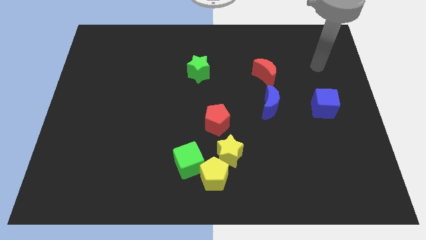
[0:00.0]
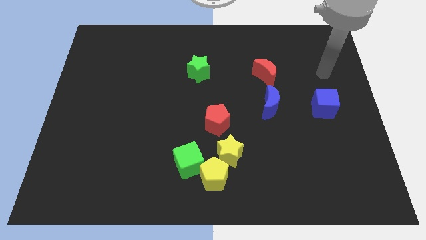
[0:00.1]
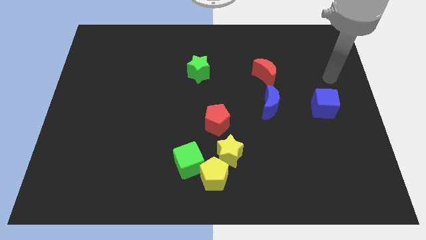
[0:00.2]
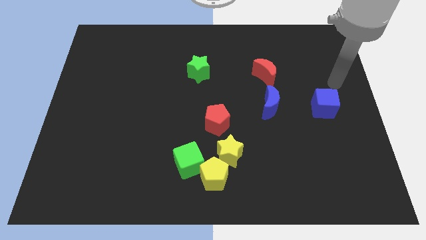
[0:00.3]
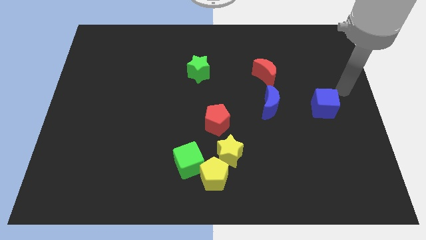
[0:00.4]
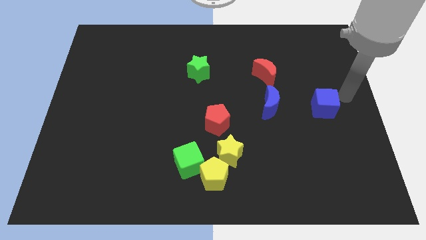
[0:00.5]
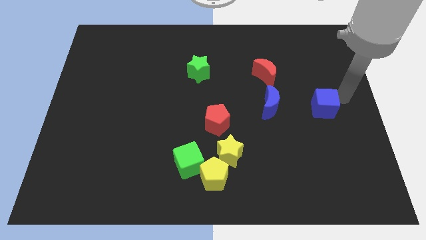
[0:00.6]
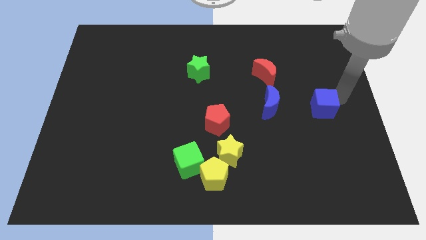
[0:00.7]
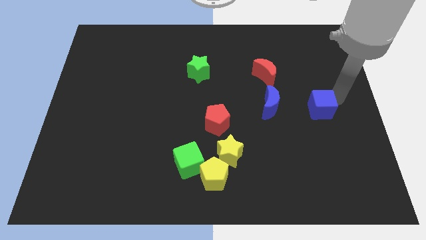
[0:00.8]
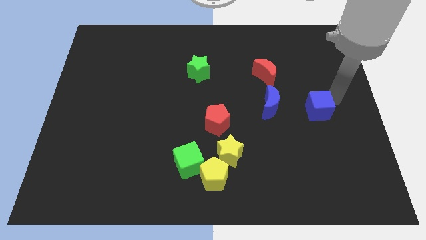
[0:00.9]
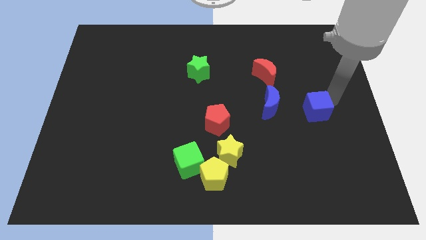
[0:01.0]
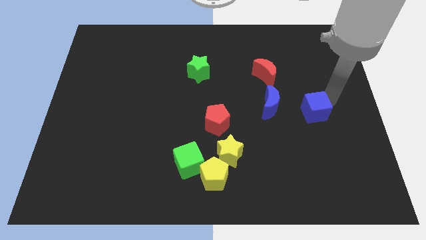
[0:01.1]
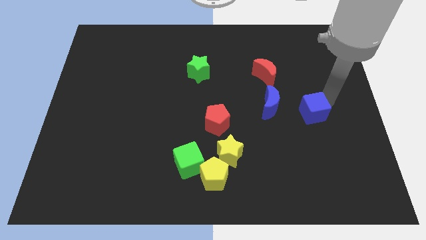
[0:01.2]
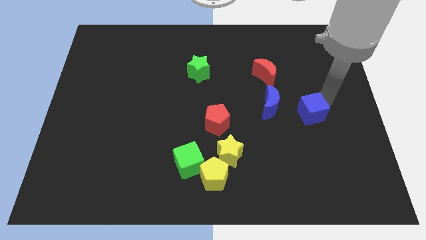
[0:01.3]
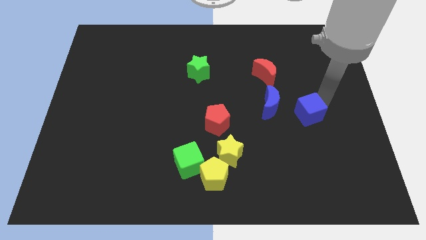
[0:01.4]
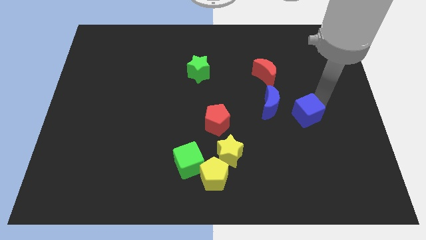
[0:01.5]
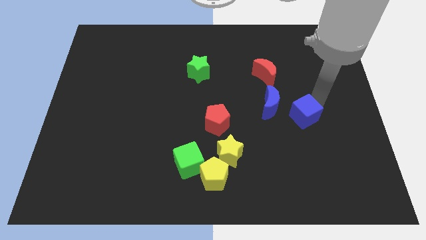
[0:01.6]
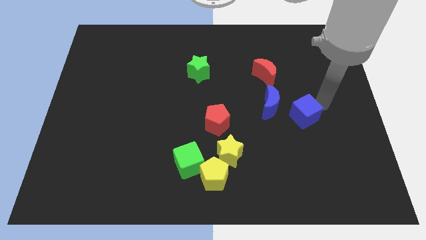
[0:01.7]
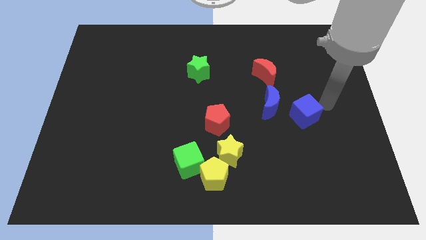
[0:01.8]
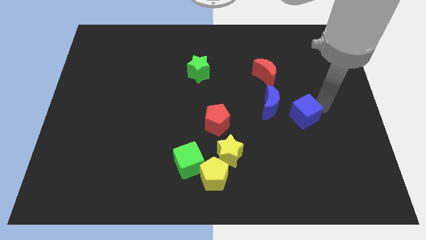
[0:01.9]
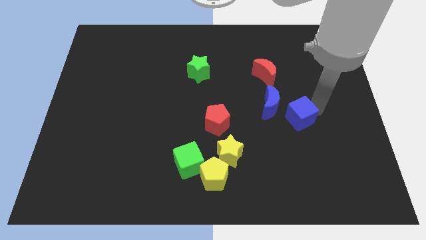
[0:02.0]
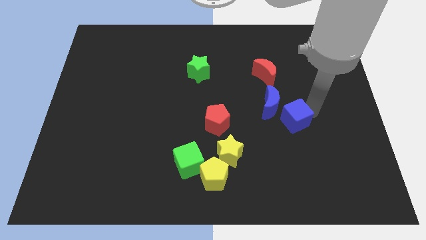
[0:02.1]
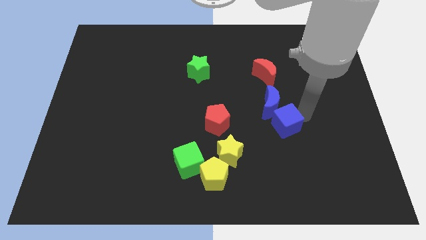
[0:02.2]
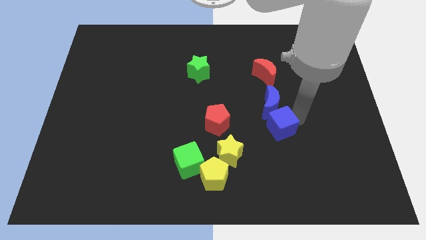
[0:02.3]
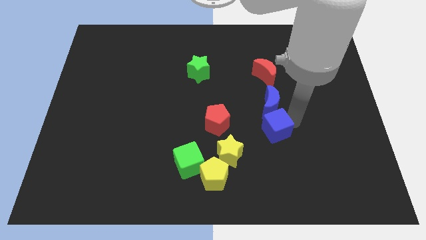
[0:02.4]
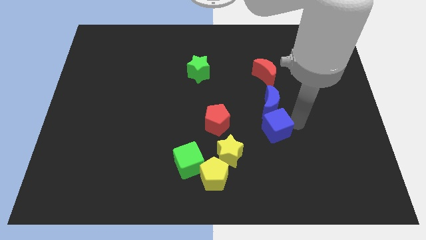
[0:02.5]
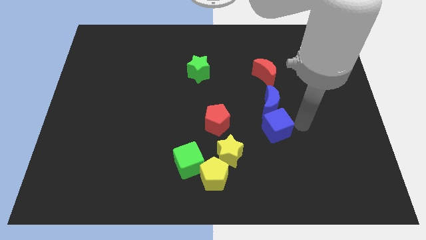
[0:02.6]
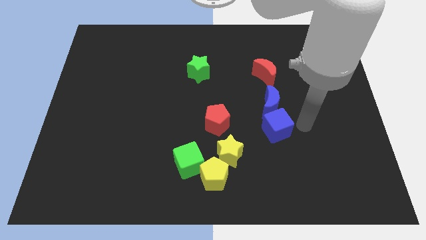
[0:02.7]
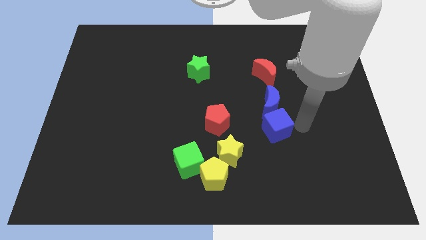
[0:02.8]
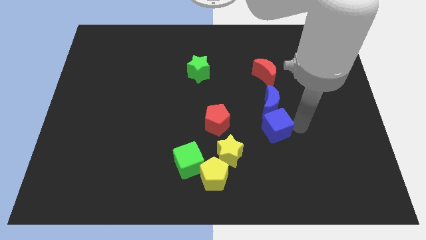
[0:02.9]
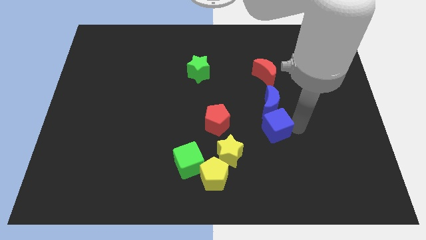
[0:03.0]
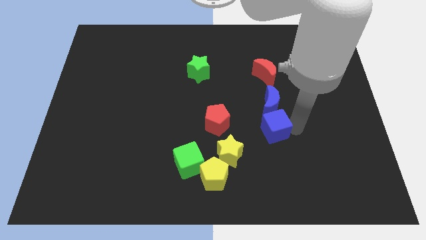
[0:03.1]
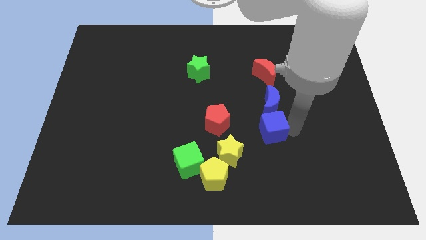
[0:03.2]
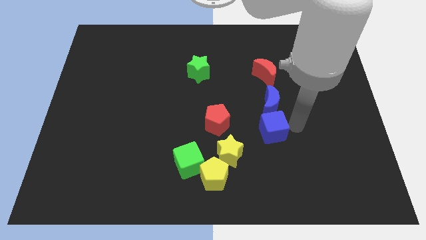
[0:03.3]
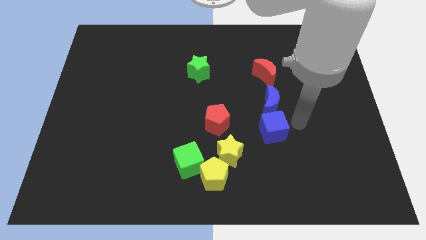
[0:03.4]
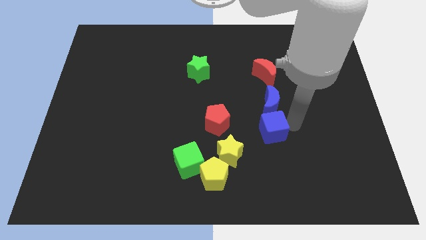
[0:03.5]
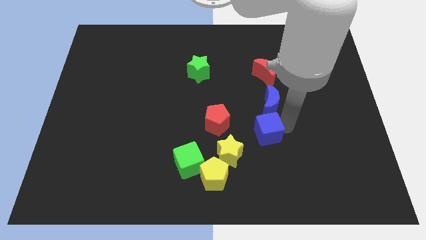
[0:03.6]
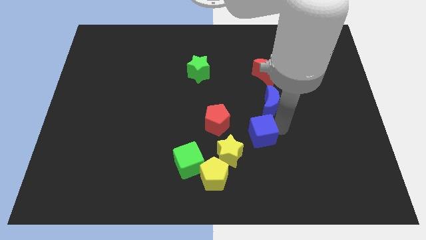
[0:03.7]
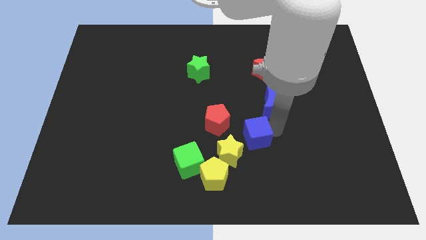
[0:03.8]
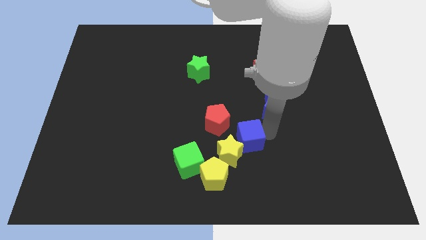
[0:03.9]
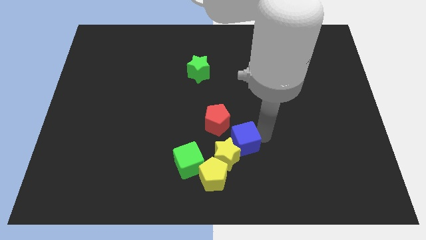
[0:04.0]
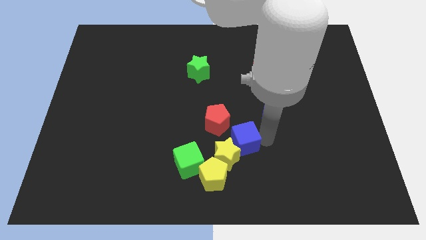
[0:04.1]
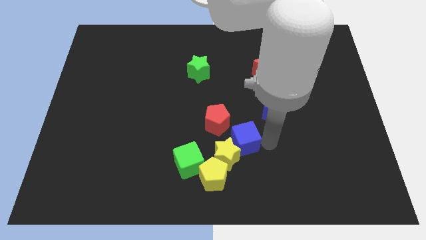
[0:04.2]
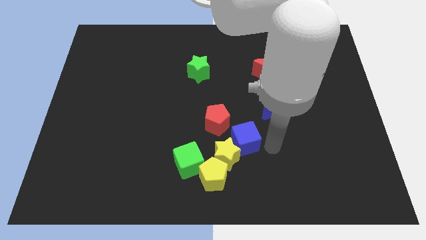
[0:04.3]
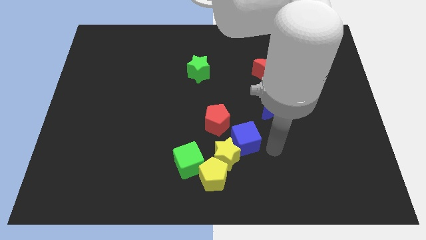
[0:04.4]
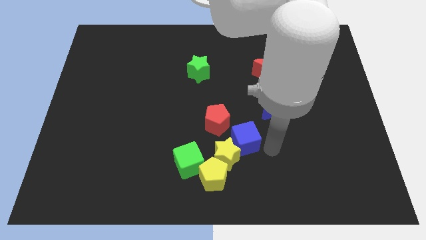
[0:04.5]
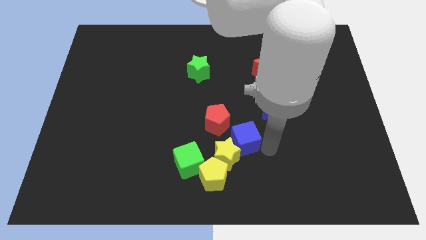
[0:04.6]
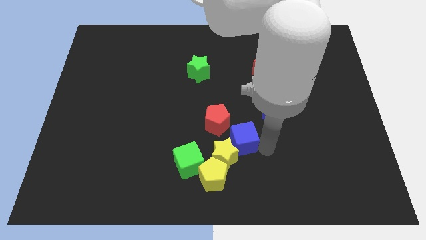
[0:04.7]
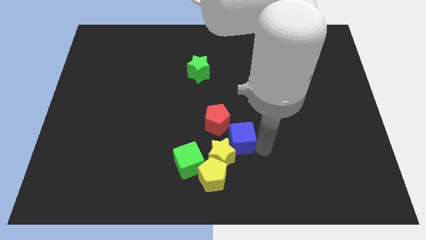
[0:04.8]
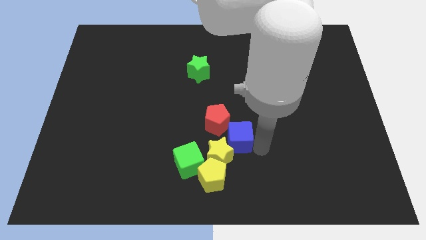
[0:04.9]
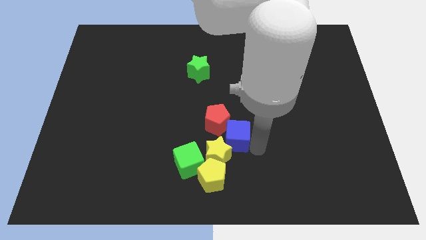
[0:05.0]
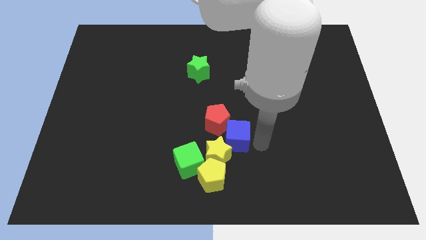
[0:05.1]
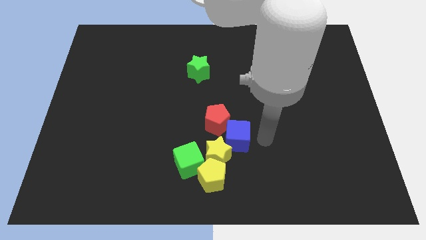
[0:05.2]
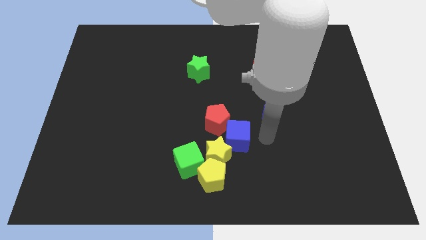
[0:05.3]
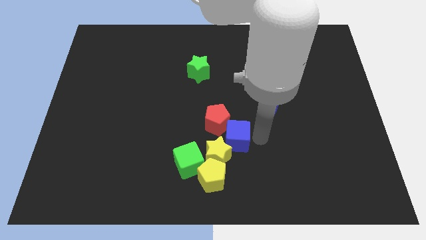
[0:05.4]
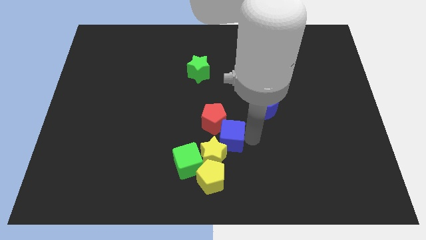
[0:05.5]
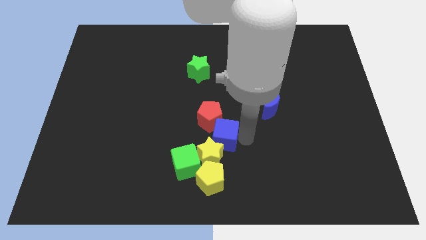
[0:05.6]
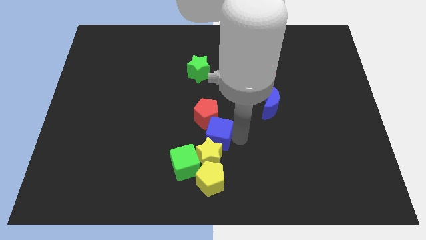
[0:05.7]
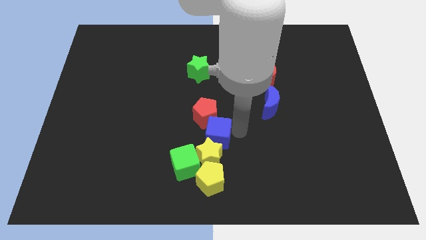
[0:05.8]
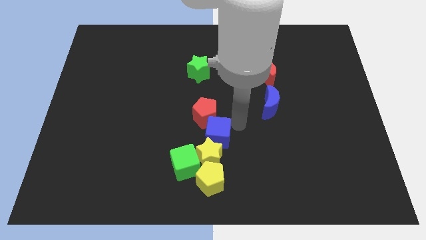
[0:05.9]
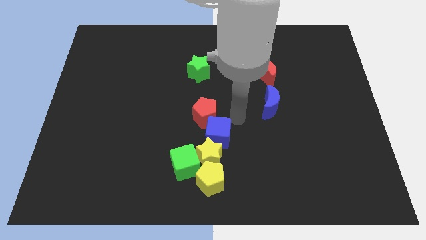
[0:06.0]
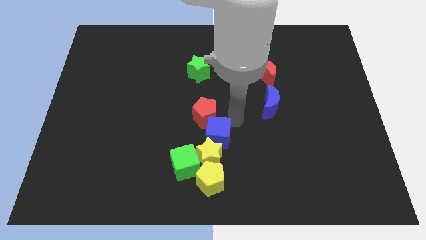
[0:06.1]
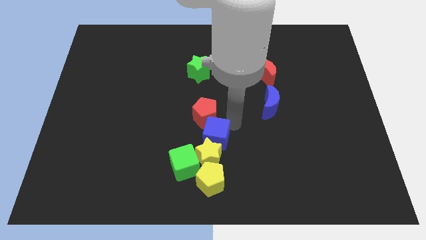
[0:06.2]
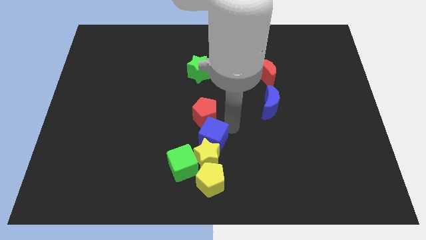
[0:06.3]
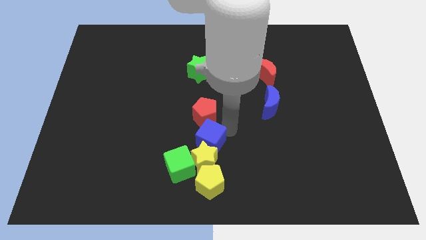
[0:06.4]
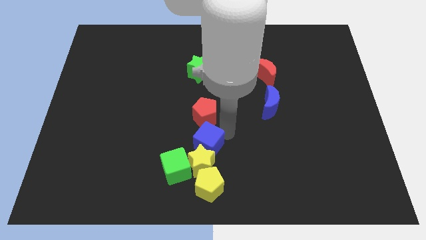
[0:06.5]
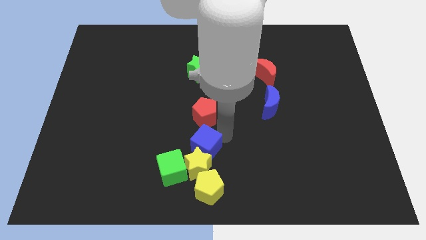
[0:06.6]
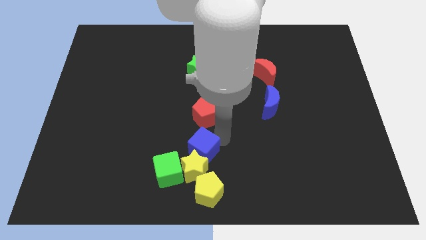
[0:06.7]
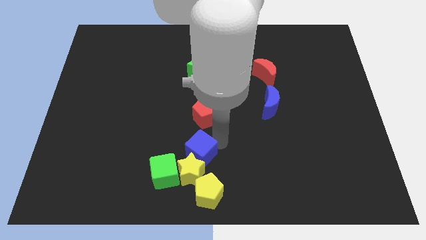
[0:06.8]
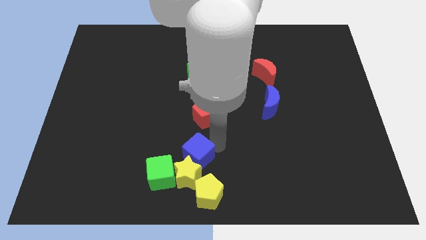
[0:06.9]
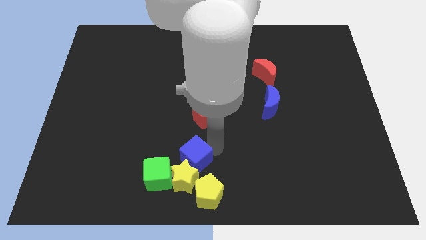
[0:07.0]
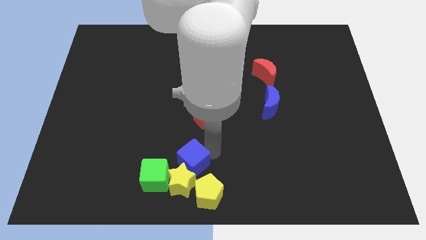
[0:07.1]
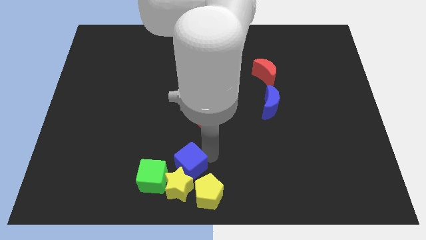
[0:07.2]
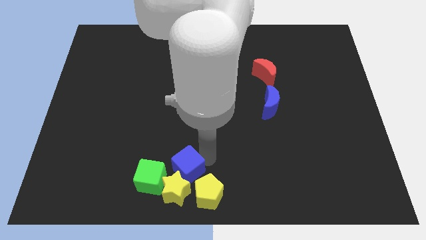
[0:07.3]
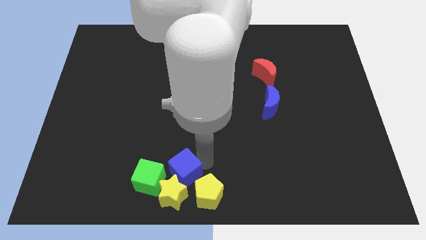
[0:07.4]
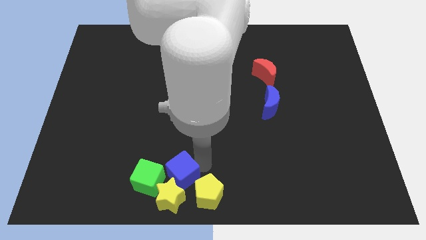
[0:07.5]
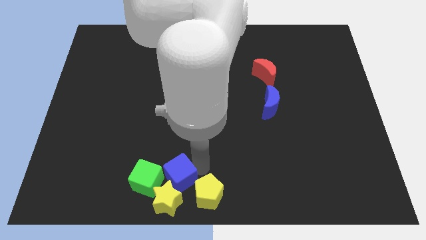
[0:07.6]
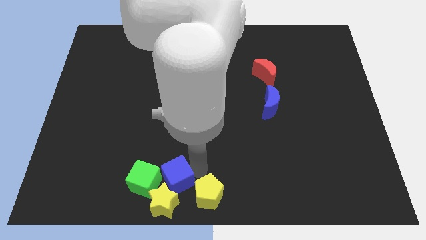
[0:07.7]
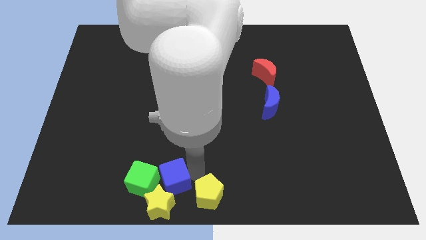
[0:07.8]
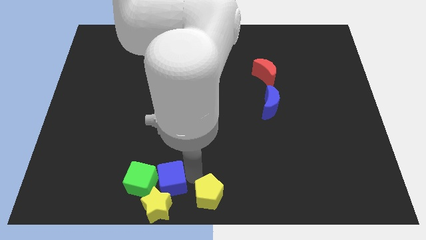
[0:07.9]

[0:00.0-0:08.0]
put the blue cube next to the green cube
